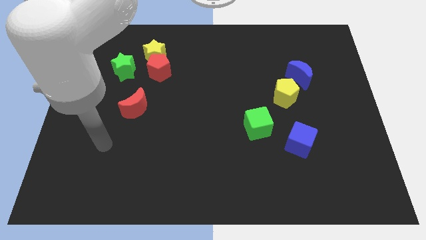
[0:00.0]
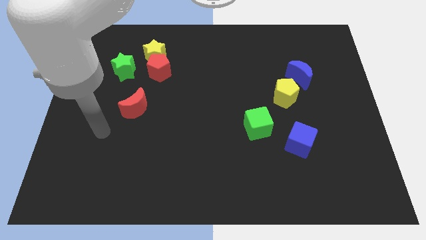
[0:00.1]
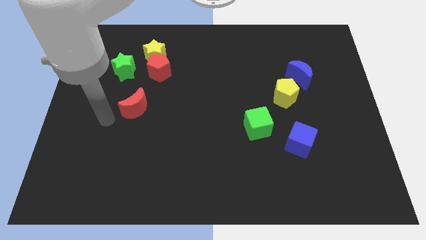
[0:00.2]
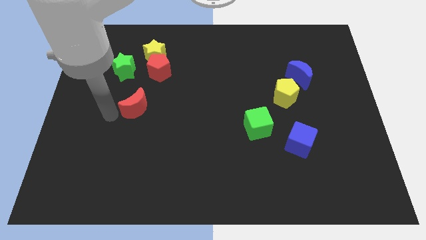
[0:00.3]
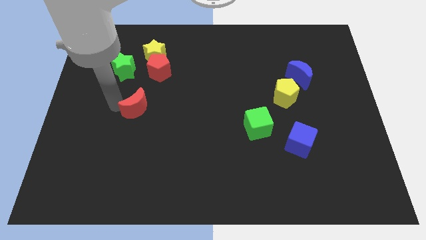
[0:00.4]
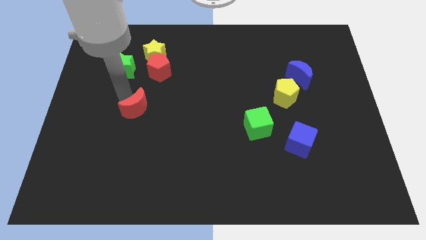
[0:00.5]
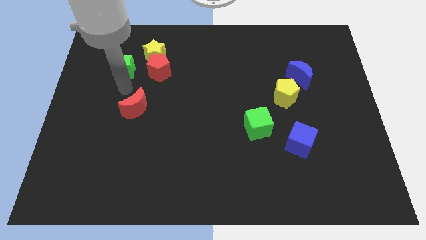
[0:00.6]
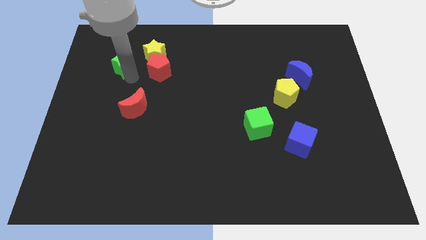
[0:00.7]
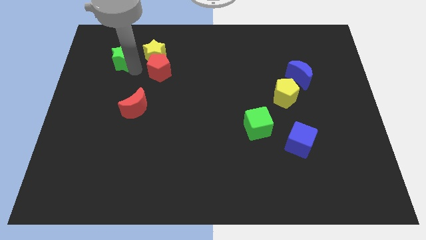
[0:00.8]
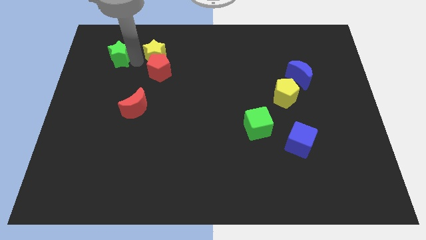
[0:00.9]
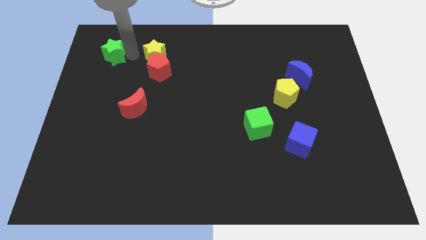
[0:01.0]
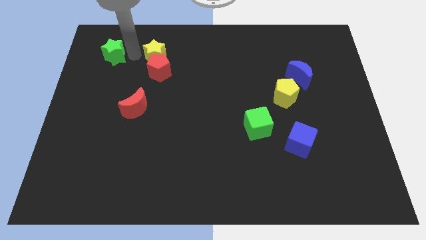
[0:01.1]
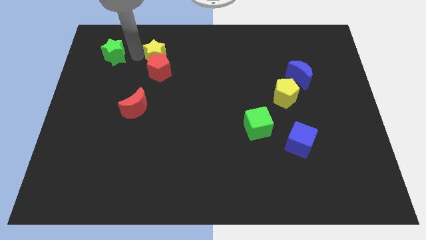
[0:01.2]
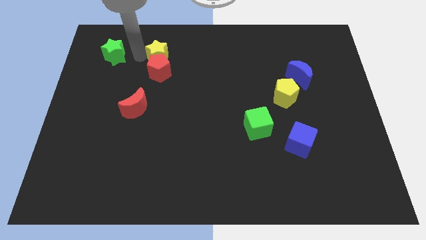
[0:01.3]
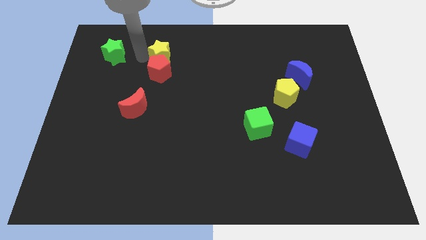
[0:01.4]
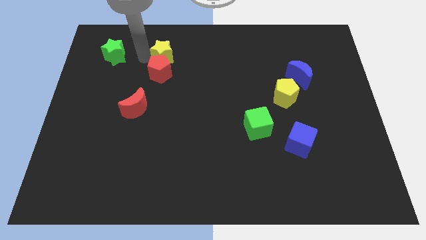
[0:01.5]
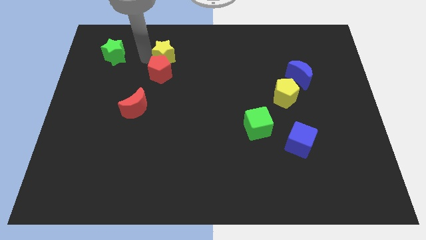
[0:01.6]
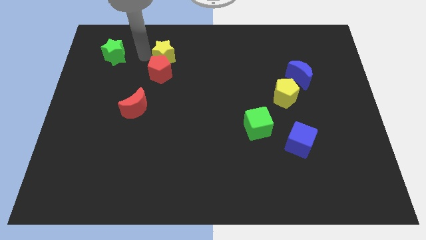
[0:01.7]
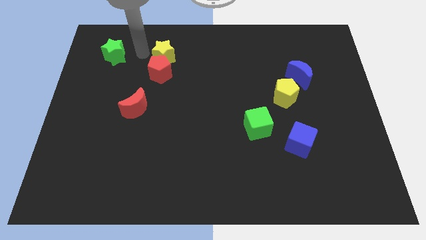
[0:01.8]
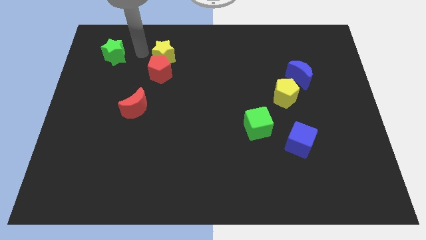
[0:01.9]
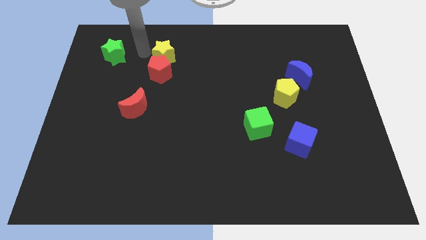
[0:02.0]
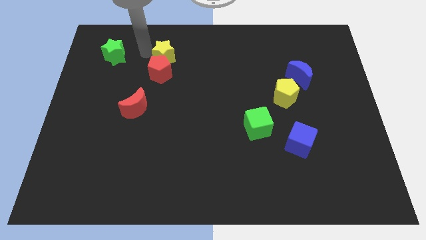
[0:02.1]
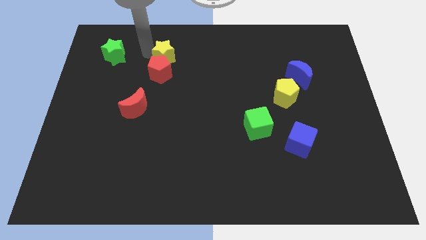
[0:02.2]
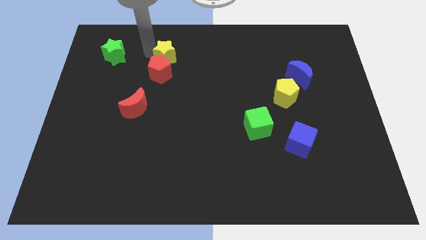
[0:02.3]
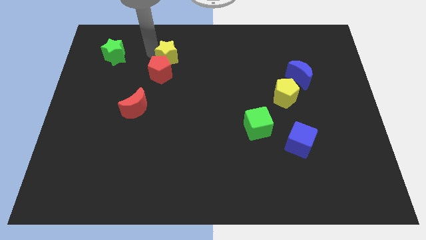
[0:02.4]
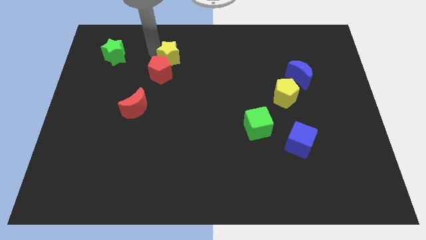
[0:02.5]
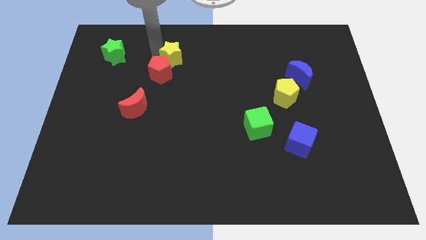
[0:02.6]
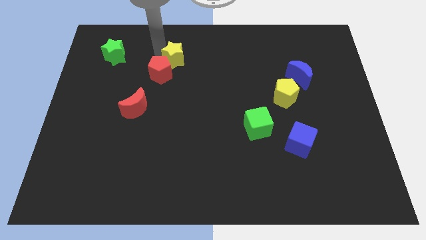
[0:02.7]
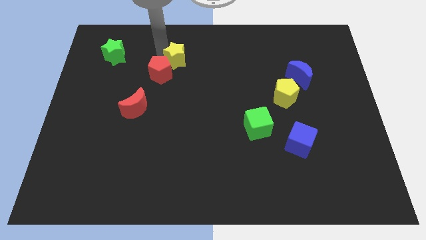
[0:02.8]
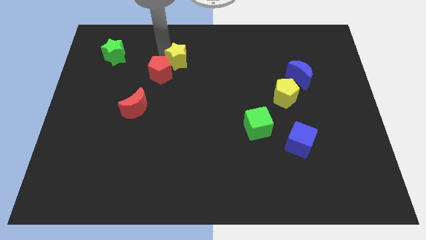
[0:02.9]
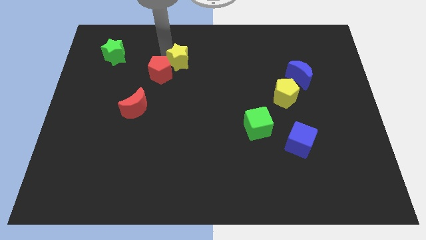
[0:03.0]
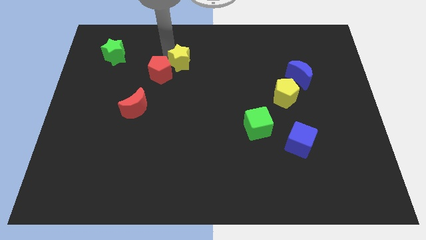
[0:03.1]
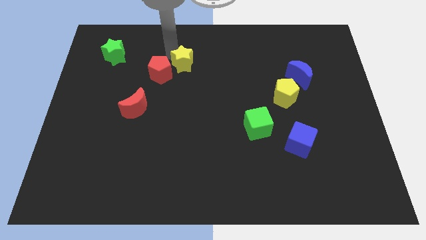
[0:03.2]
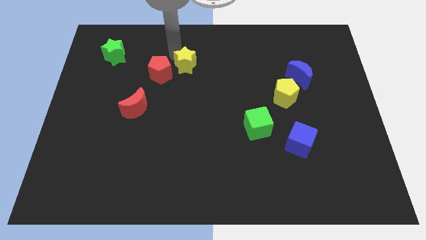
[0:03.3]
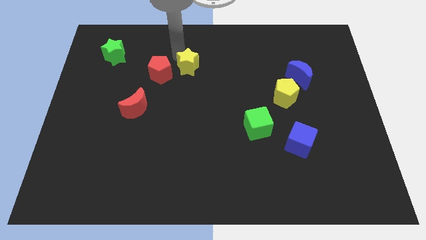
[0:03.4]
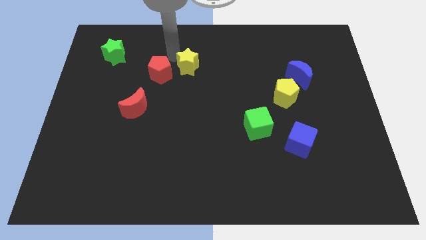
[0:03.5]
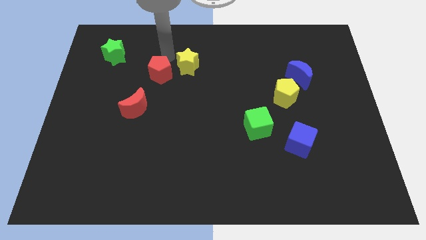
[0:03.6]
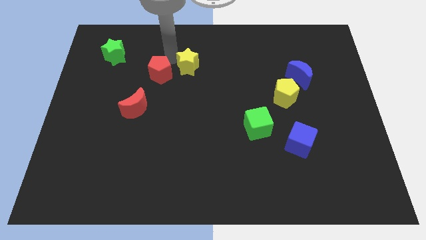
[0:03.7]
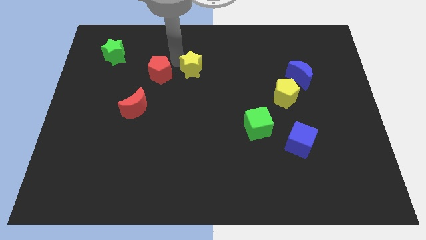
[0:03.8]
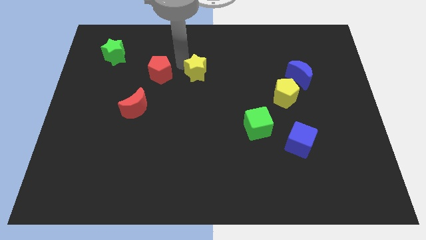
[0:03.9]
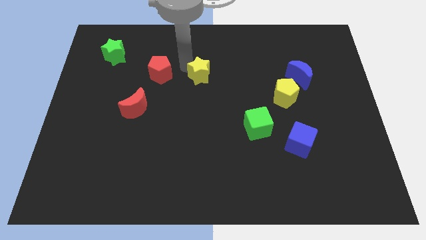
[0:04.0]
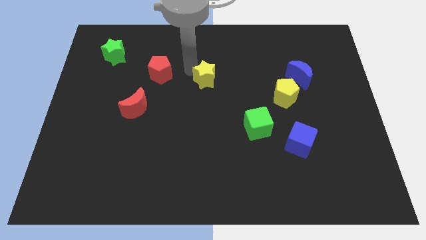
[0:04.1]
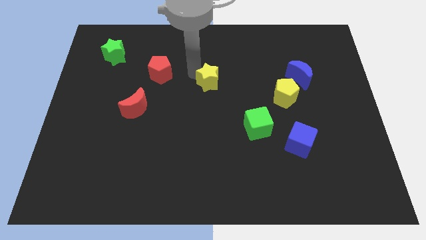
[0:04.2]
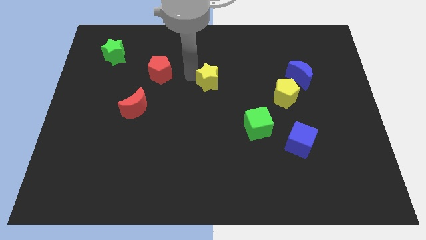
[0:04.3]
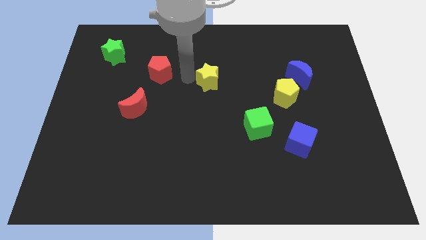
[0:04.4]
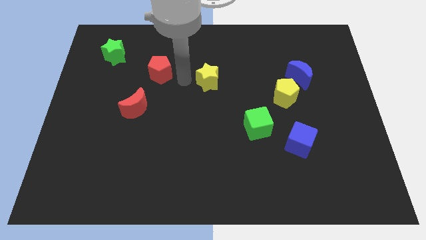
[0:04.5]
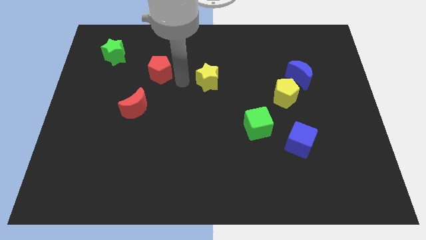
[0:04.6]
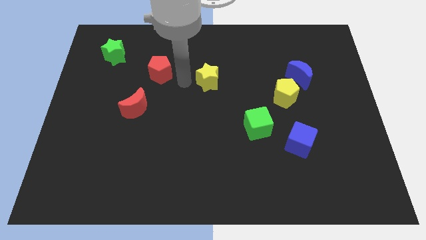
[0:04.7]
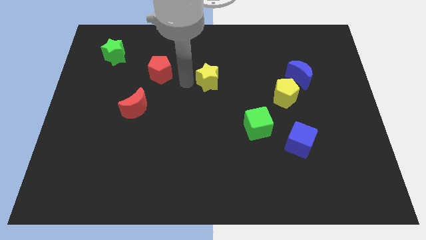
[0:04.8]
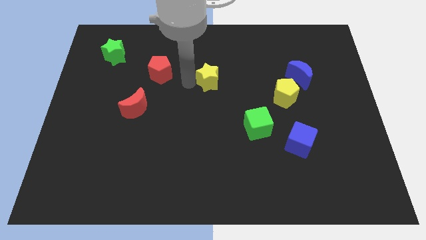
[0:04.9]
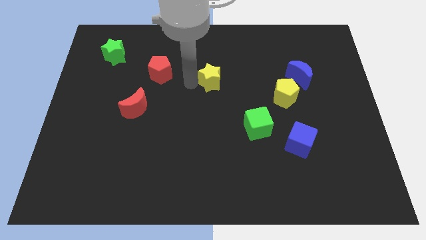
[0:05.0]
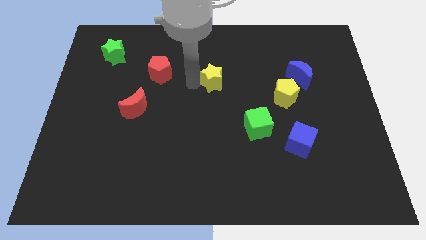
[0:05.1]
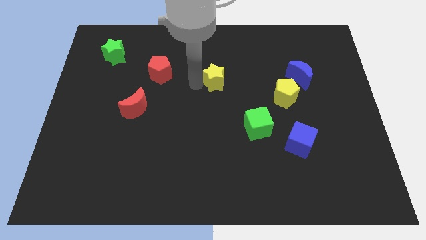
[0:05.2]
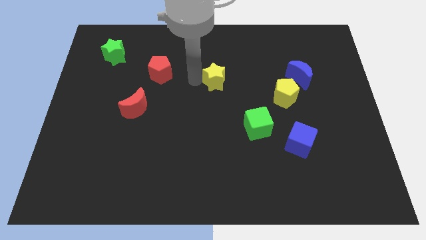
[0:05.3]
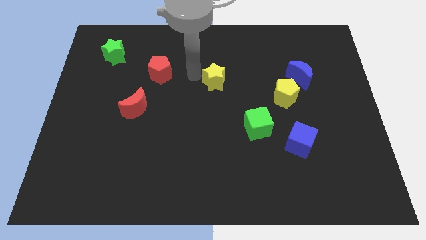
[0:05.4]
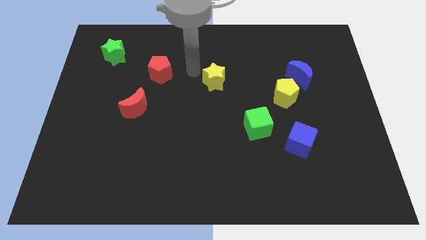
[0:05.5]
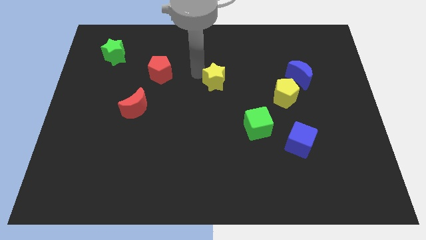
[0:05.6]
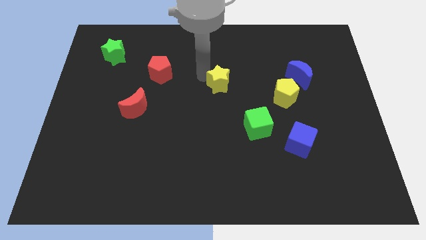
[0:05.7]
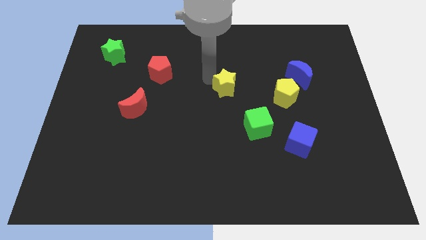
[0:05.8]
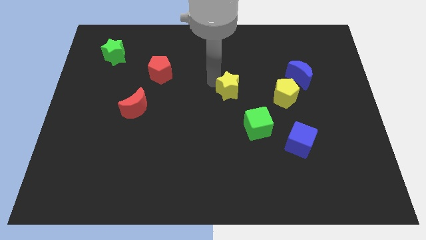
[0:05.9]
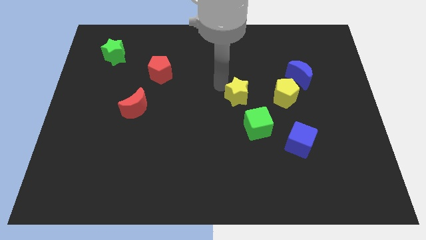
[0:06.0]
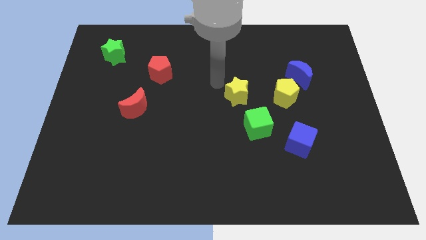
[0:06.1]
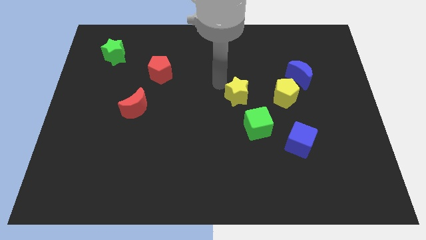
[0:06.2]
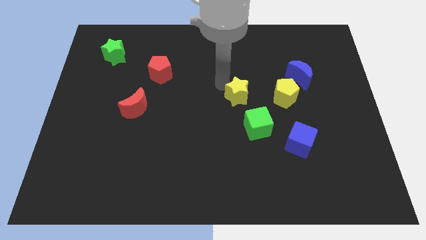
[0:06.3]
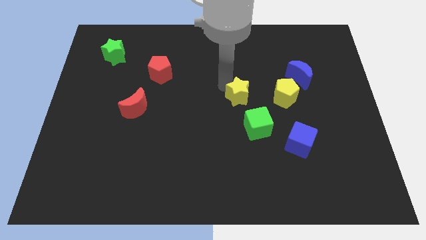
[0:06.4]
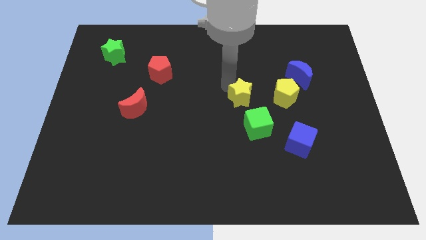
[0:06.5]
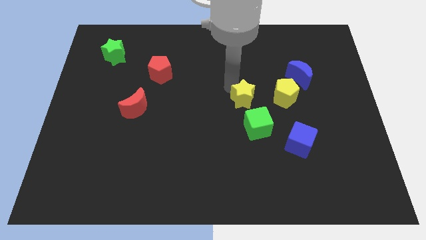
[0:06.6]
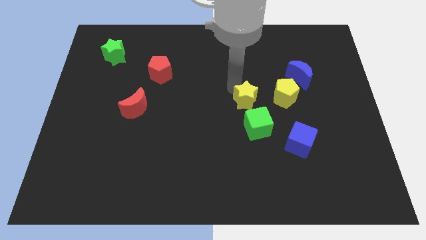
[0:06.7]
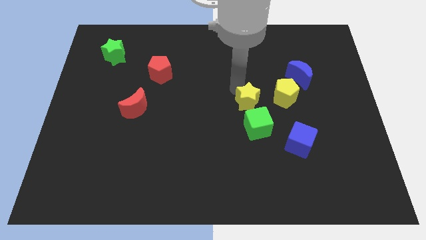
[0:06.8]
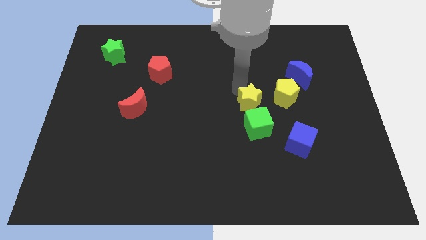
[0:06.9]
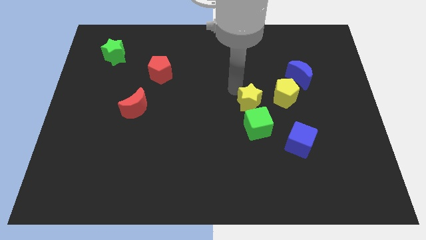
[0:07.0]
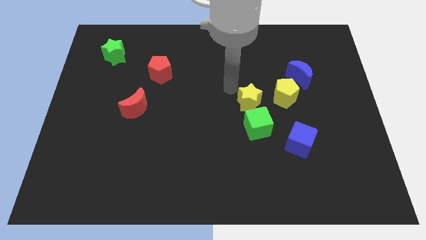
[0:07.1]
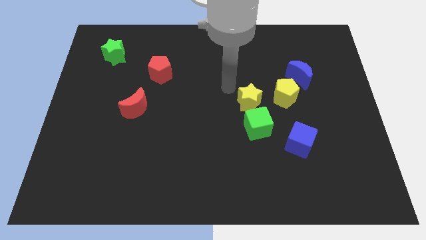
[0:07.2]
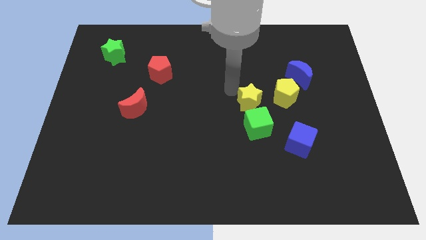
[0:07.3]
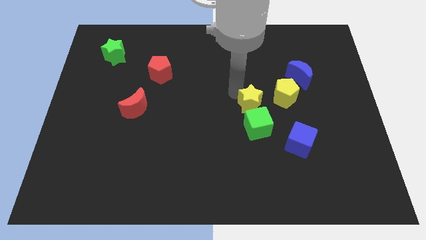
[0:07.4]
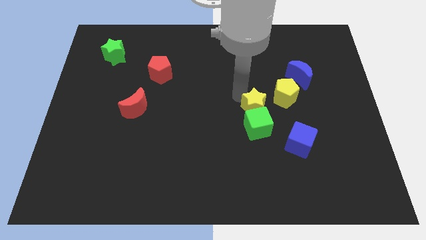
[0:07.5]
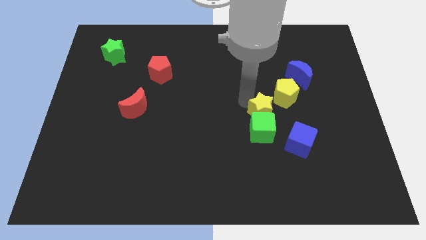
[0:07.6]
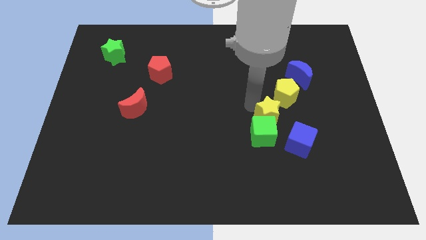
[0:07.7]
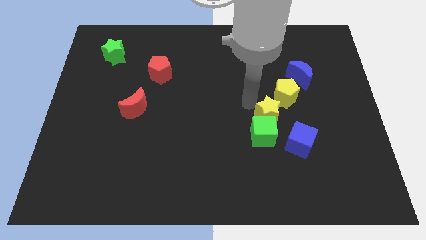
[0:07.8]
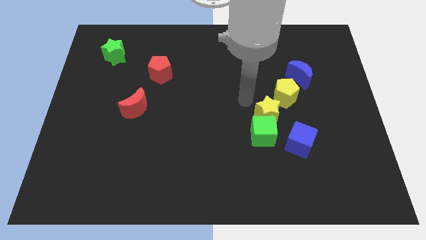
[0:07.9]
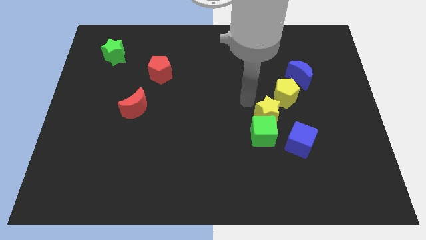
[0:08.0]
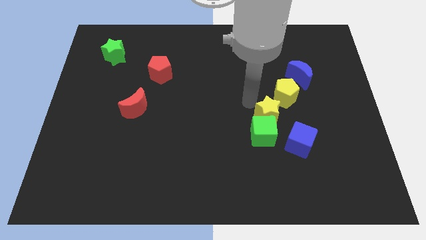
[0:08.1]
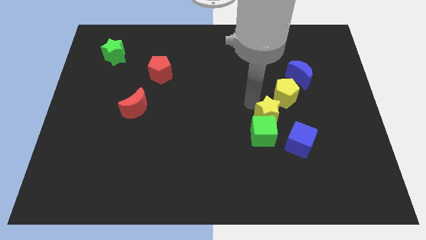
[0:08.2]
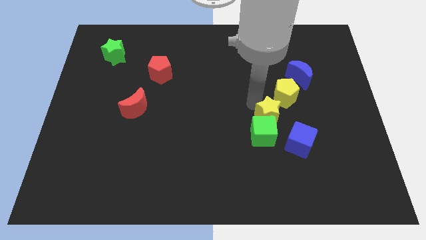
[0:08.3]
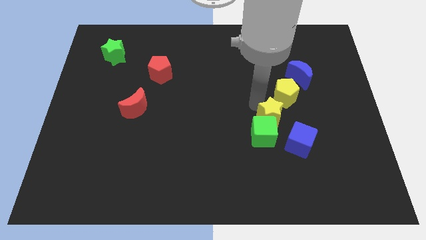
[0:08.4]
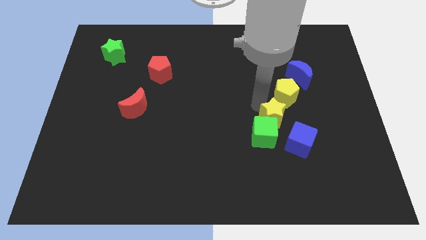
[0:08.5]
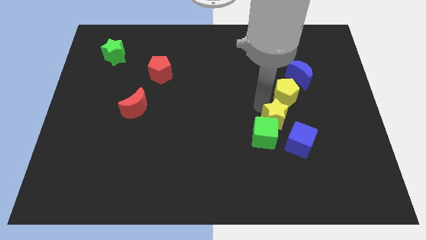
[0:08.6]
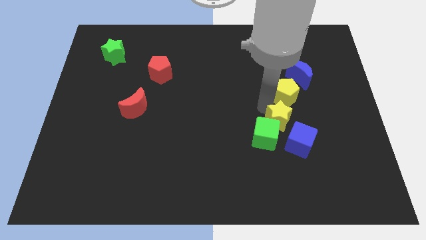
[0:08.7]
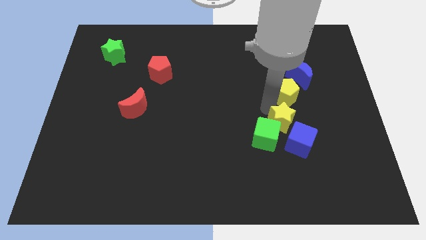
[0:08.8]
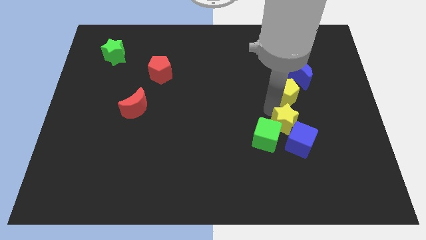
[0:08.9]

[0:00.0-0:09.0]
push the yellow star next to the blue cube
